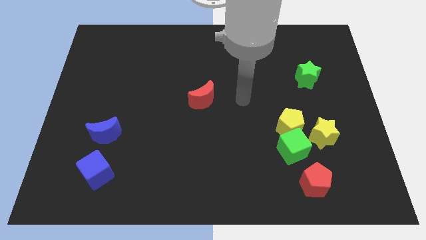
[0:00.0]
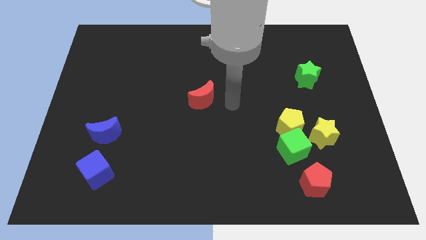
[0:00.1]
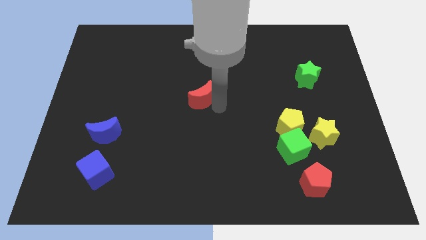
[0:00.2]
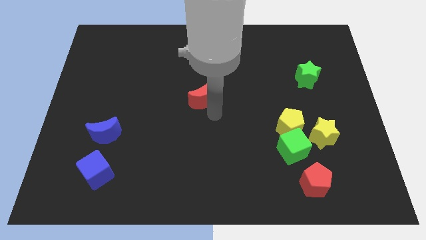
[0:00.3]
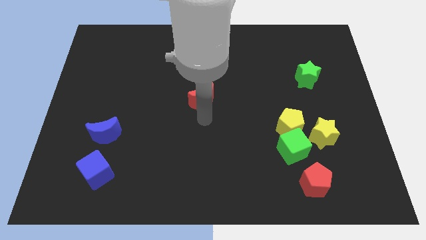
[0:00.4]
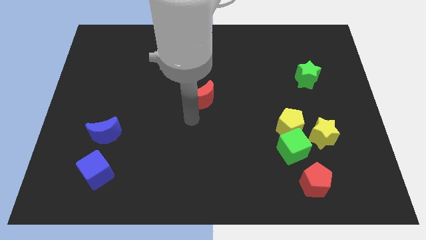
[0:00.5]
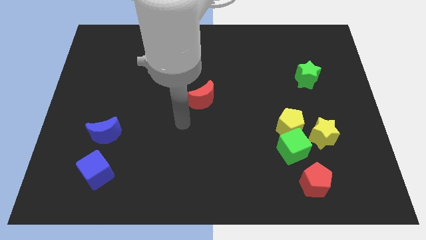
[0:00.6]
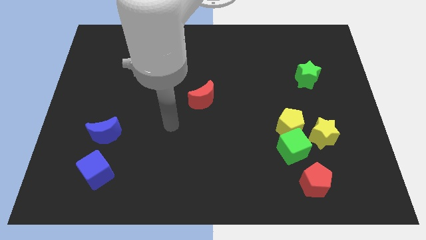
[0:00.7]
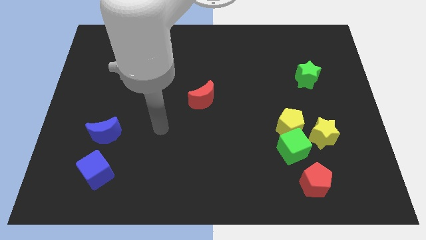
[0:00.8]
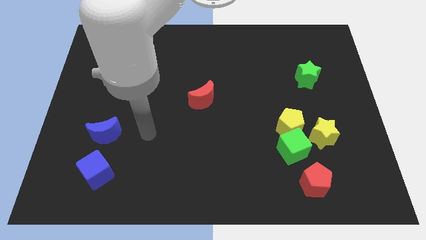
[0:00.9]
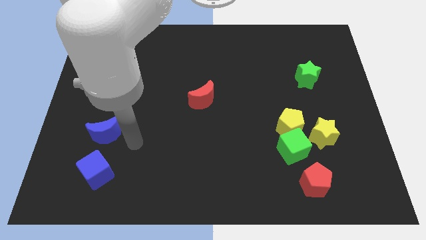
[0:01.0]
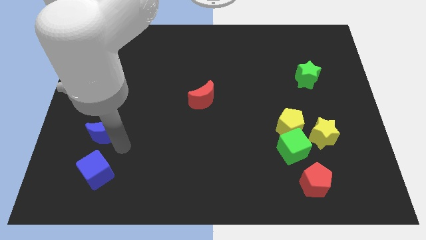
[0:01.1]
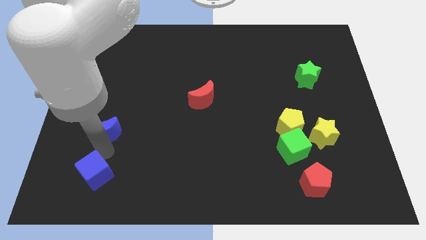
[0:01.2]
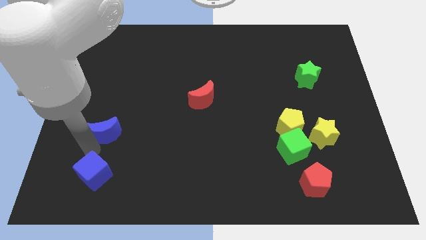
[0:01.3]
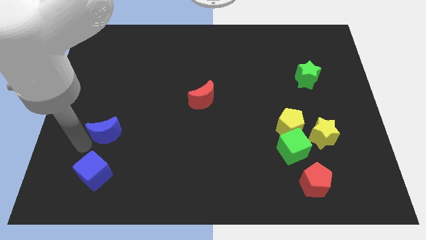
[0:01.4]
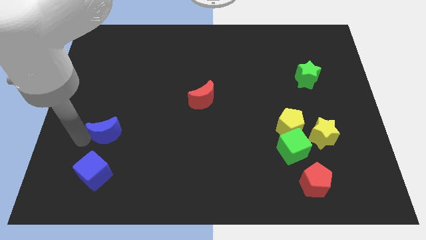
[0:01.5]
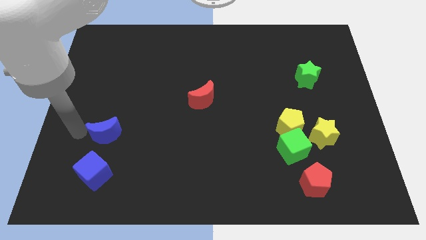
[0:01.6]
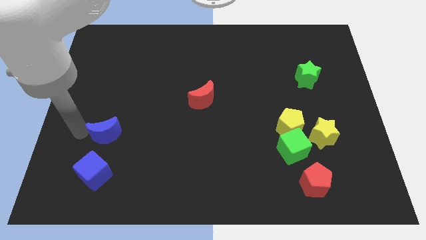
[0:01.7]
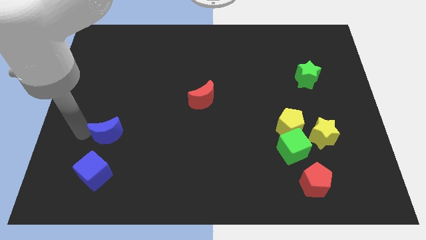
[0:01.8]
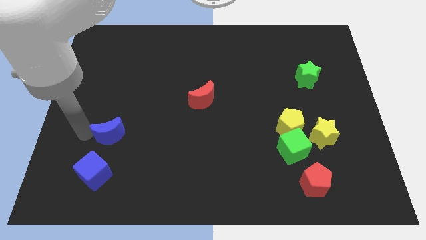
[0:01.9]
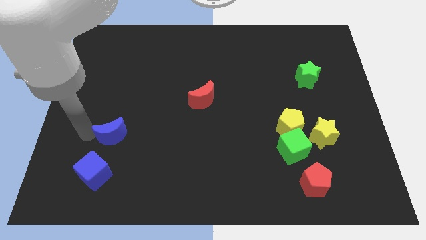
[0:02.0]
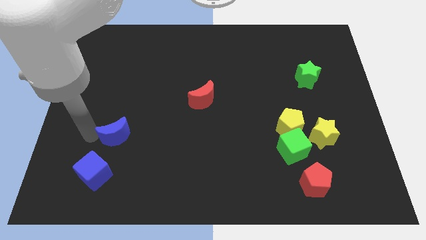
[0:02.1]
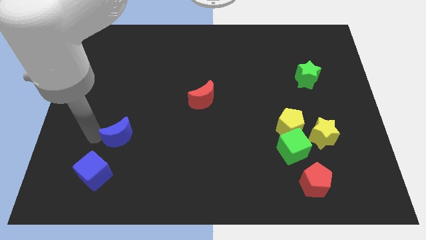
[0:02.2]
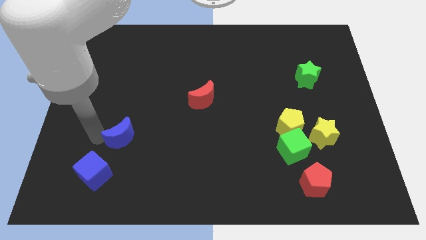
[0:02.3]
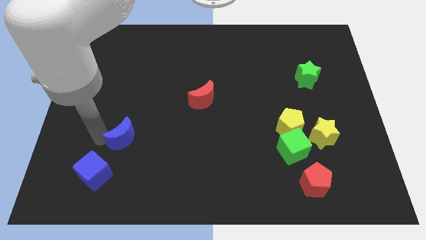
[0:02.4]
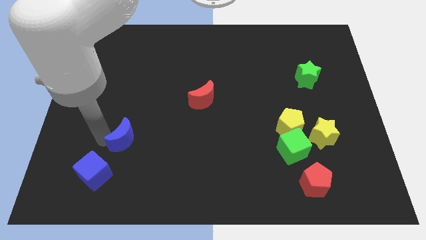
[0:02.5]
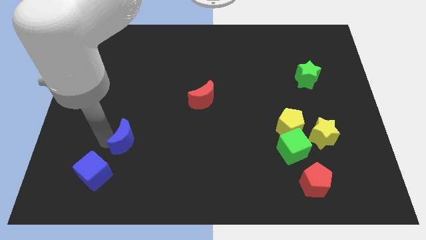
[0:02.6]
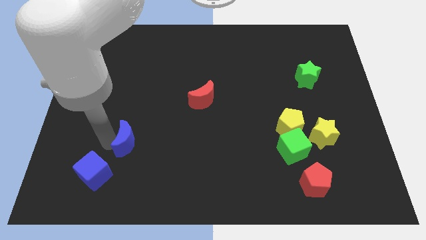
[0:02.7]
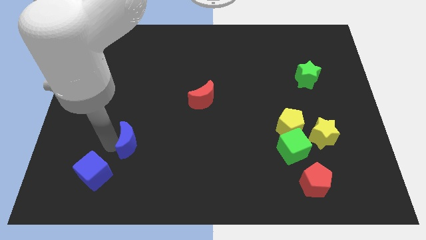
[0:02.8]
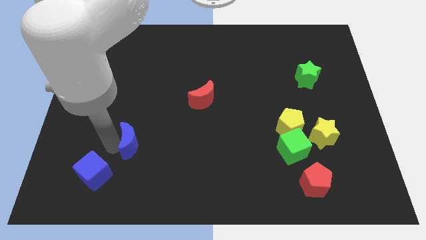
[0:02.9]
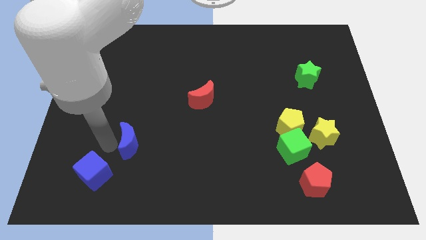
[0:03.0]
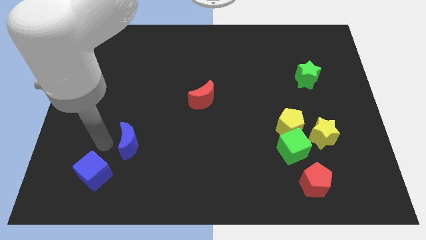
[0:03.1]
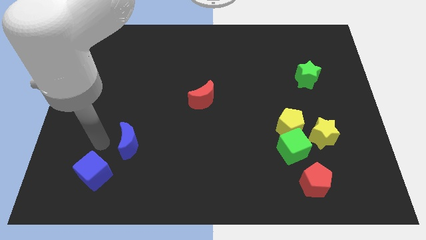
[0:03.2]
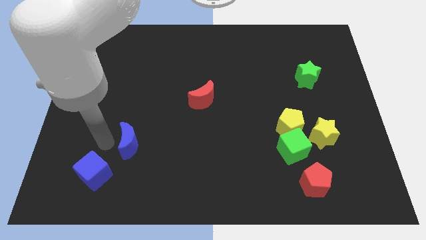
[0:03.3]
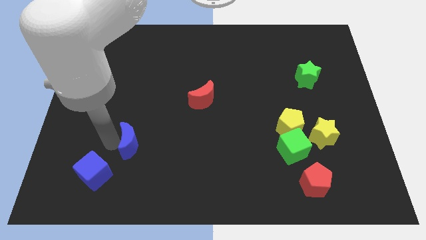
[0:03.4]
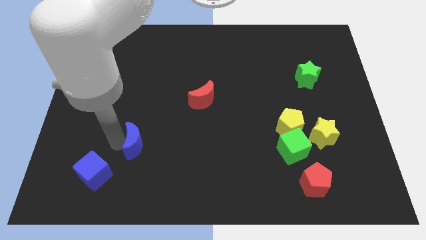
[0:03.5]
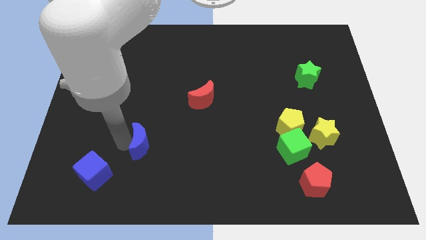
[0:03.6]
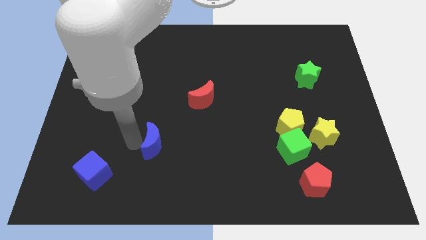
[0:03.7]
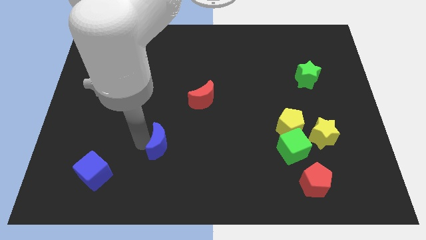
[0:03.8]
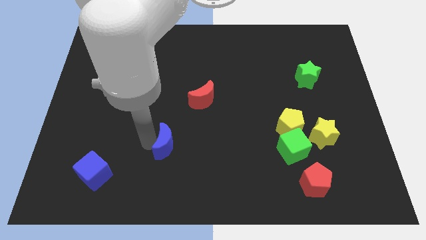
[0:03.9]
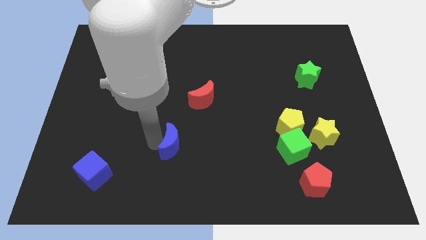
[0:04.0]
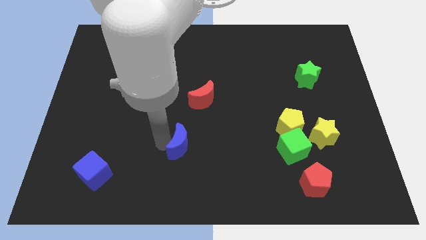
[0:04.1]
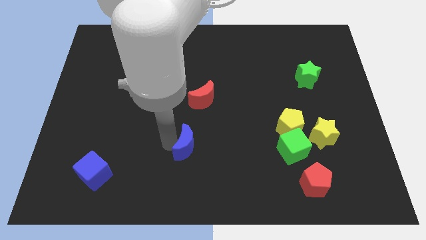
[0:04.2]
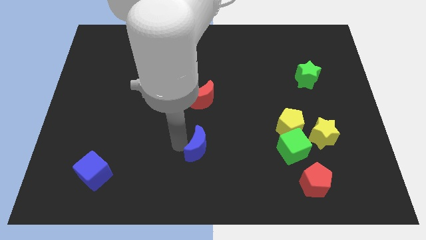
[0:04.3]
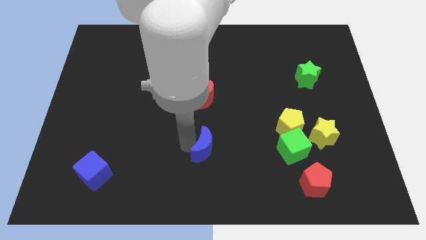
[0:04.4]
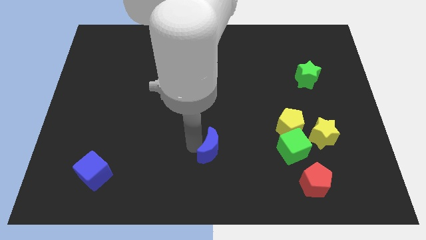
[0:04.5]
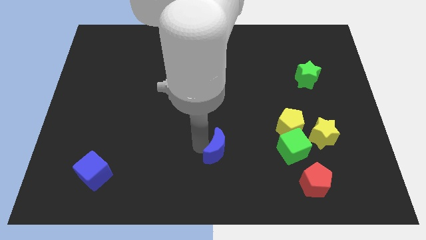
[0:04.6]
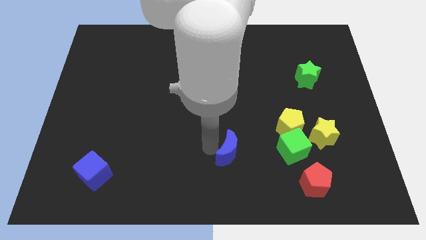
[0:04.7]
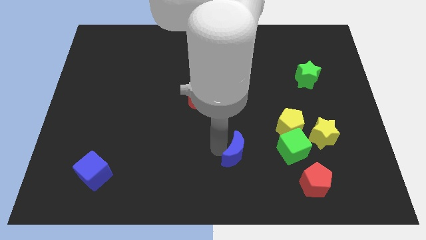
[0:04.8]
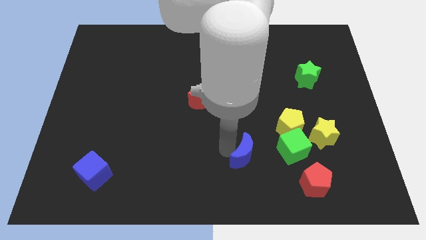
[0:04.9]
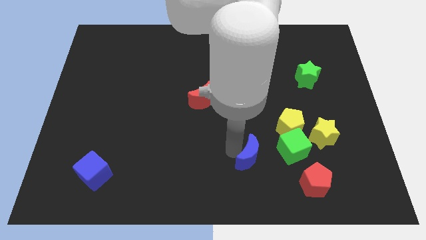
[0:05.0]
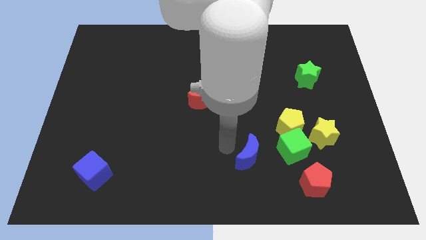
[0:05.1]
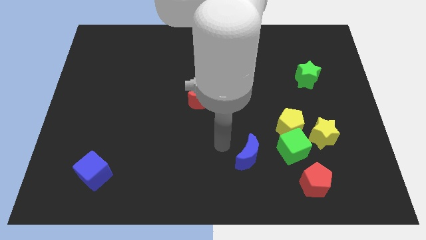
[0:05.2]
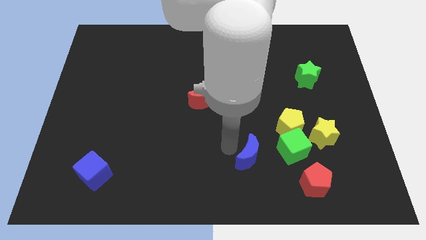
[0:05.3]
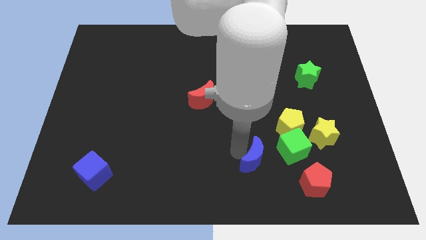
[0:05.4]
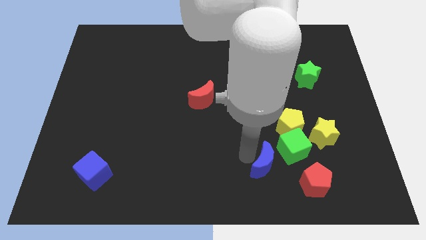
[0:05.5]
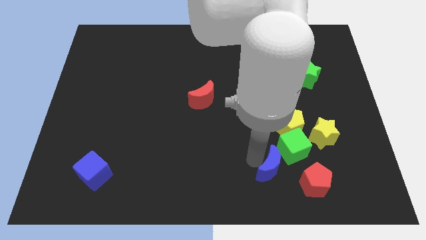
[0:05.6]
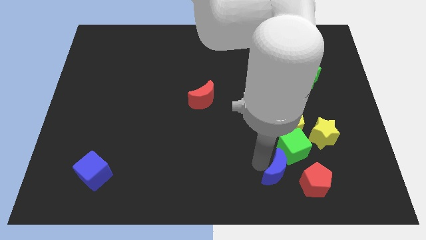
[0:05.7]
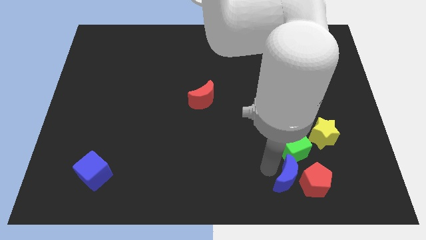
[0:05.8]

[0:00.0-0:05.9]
push the blue moon towards the red pentagon

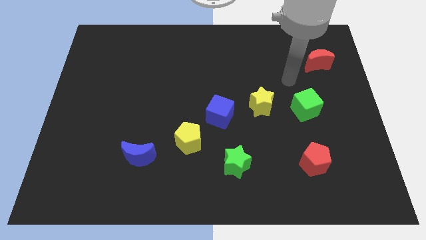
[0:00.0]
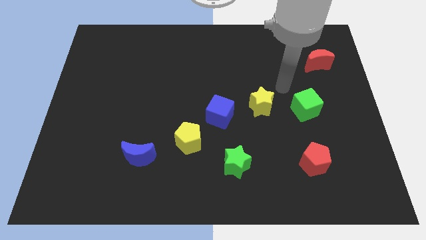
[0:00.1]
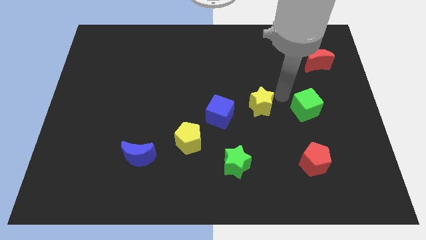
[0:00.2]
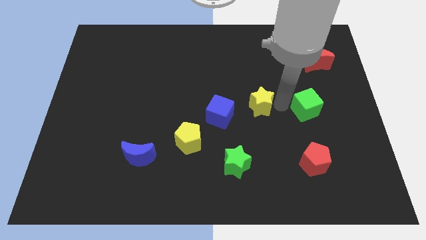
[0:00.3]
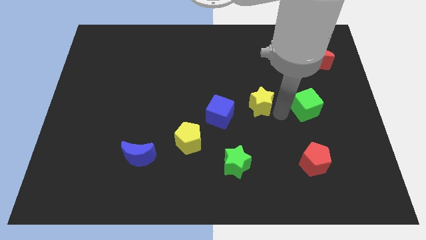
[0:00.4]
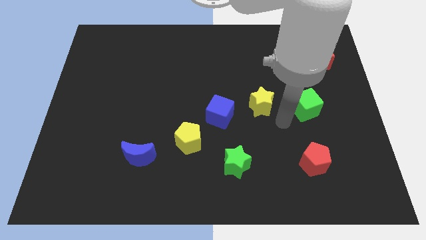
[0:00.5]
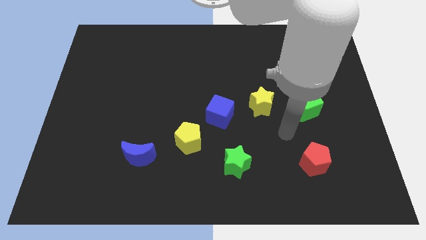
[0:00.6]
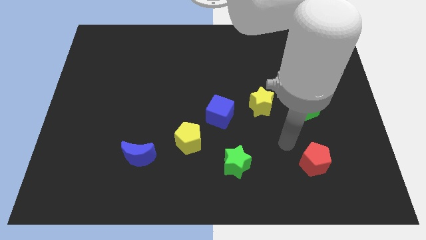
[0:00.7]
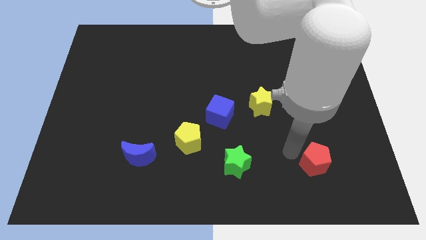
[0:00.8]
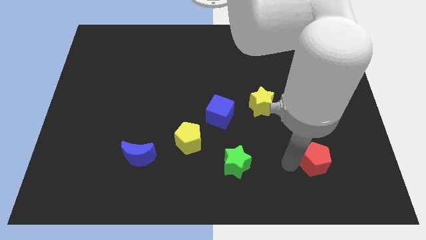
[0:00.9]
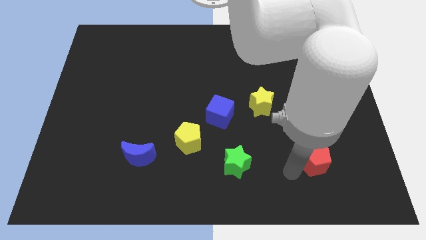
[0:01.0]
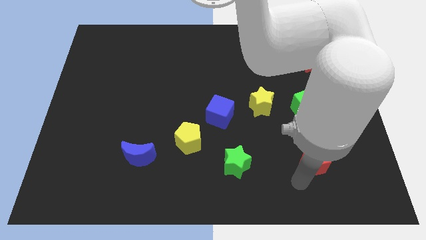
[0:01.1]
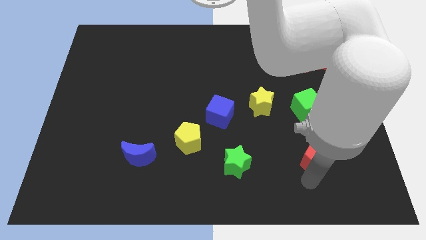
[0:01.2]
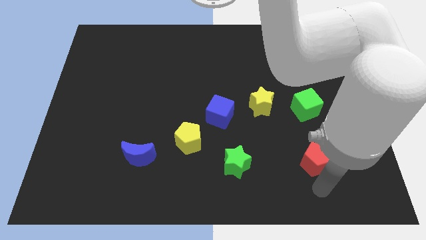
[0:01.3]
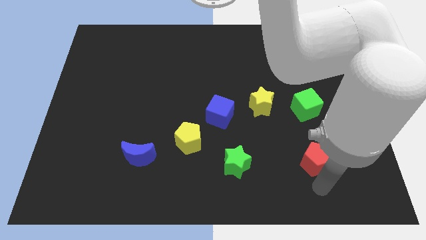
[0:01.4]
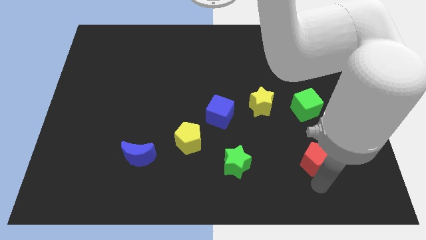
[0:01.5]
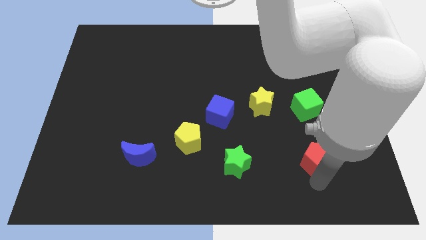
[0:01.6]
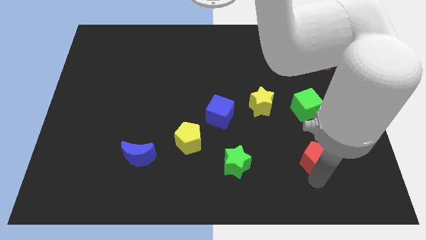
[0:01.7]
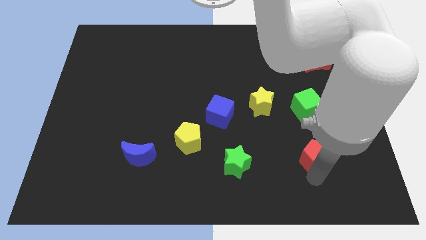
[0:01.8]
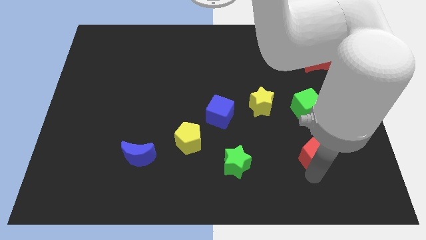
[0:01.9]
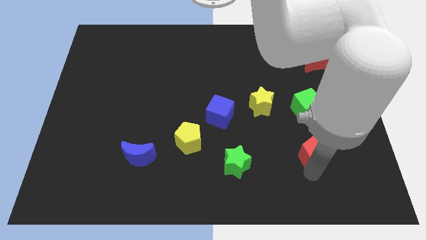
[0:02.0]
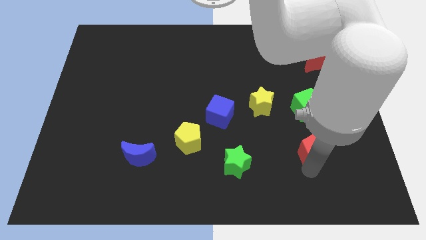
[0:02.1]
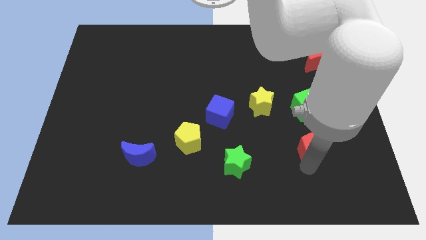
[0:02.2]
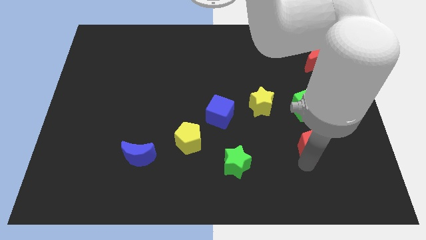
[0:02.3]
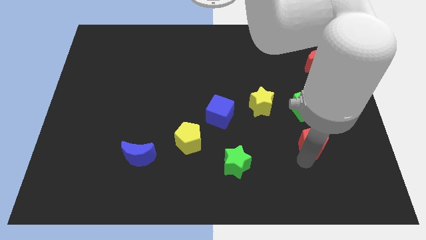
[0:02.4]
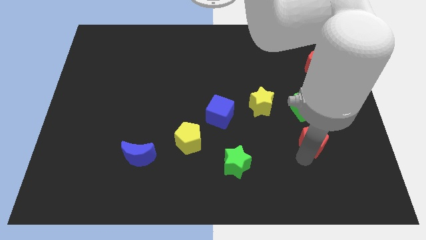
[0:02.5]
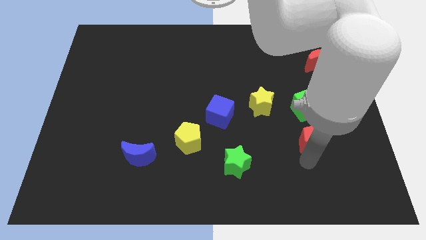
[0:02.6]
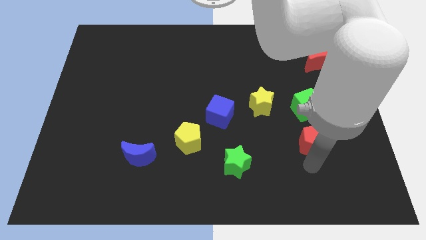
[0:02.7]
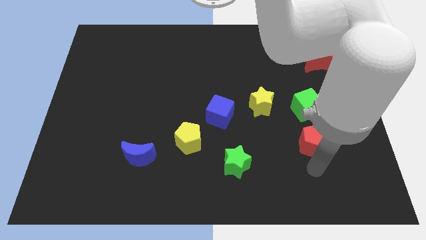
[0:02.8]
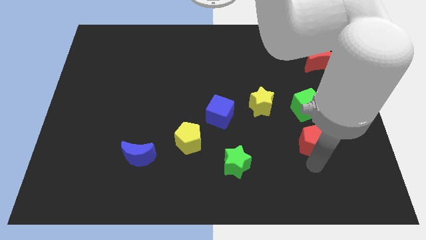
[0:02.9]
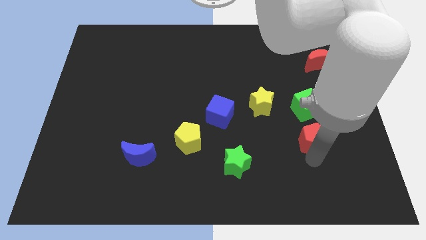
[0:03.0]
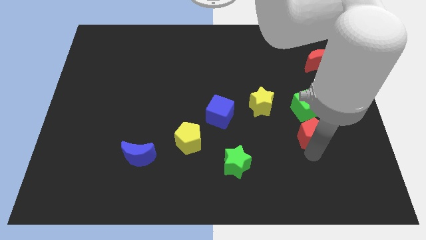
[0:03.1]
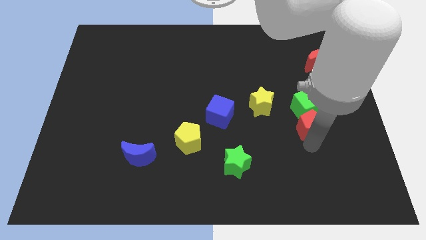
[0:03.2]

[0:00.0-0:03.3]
push the red pentagon close to the green cube
